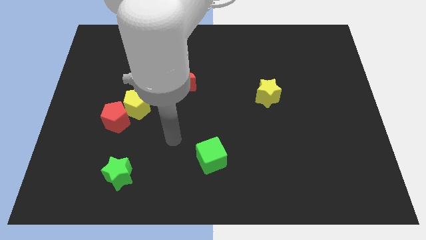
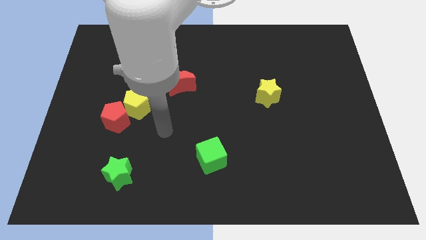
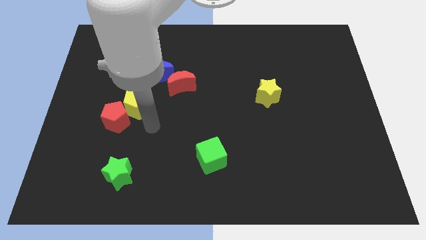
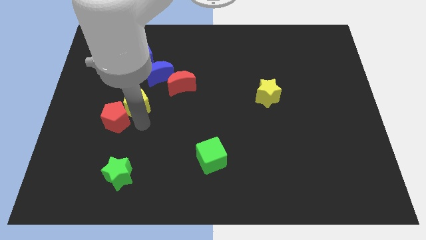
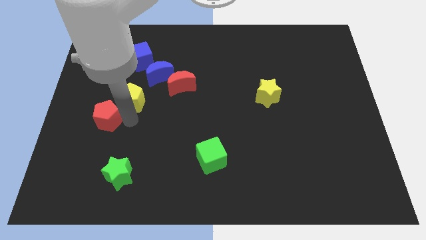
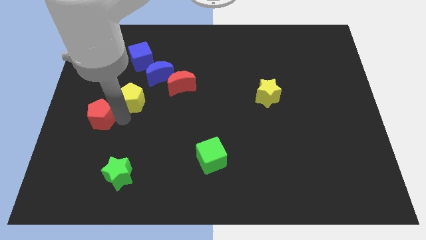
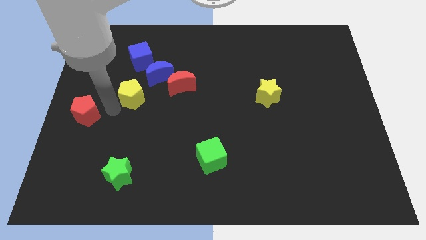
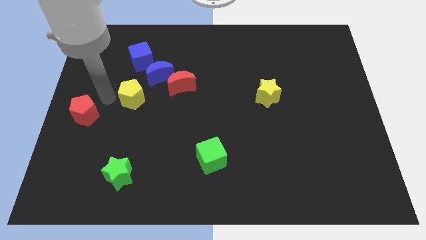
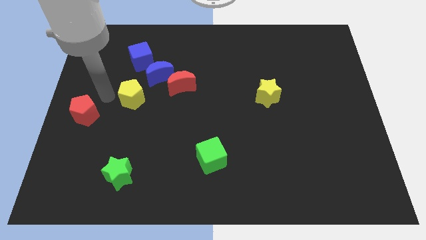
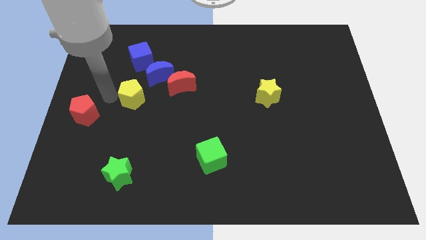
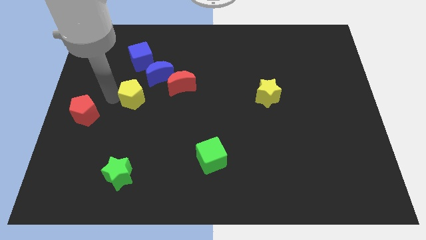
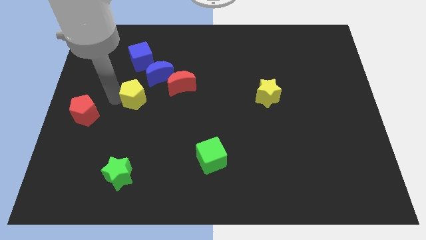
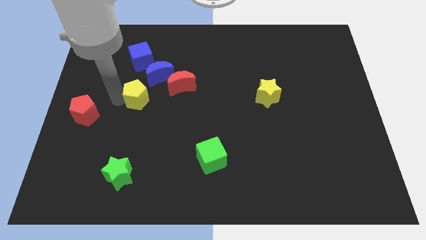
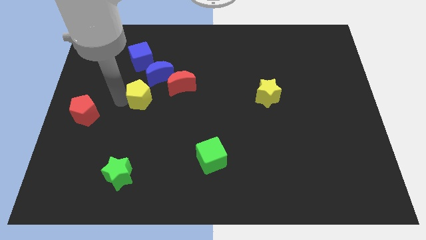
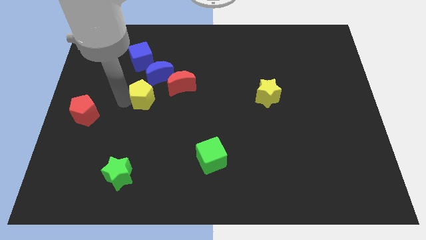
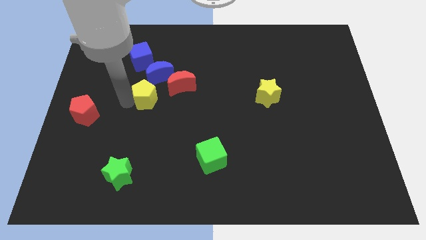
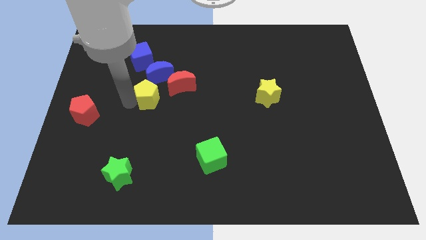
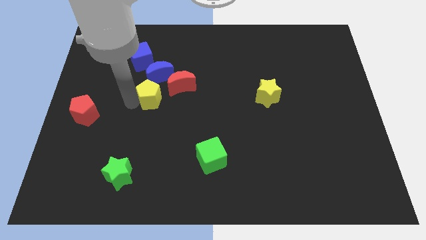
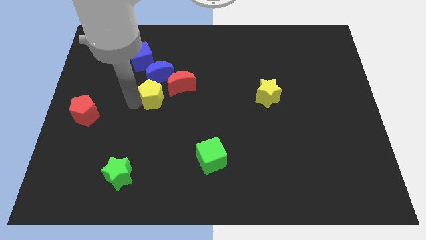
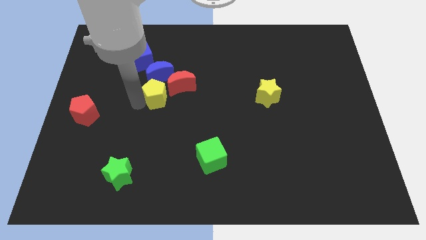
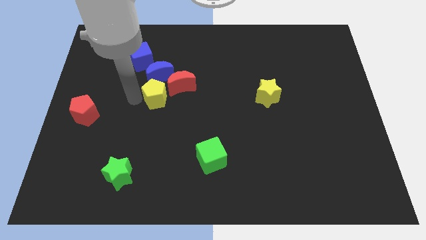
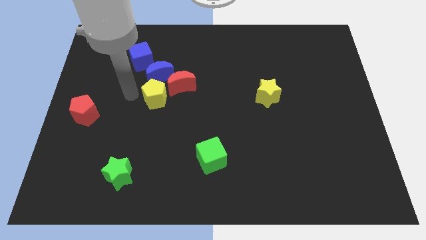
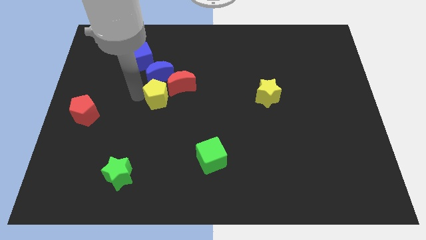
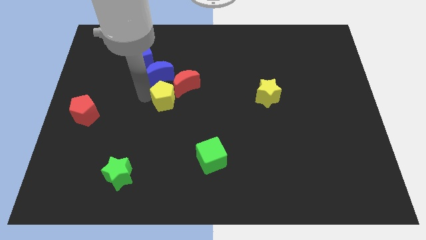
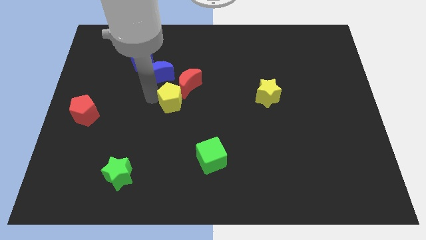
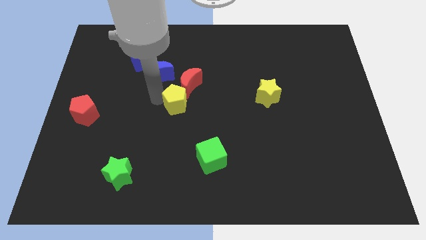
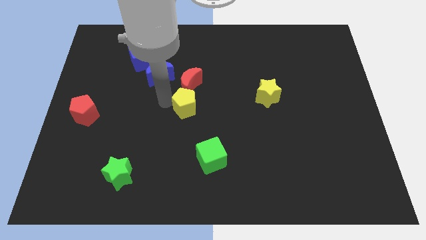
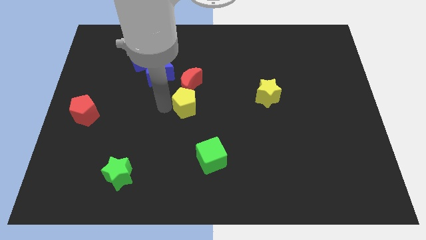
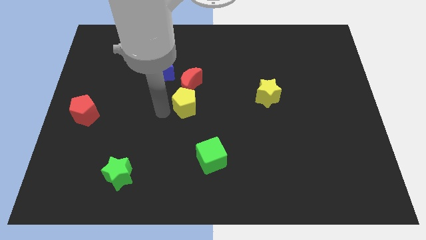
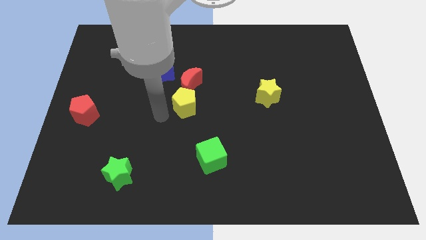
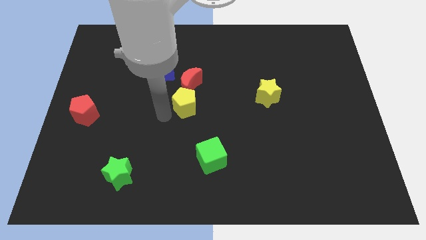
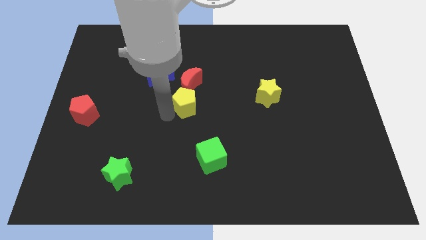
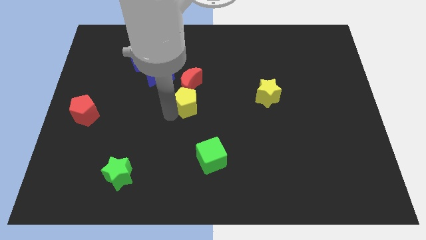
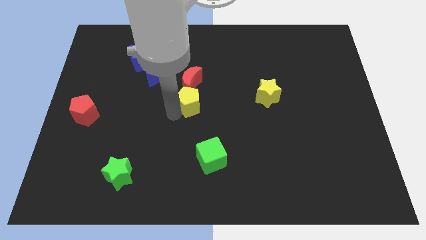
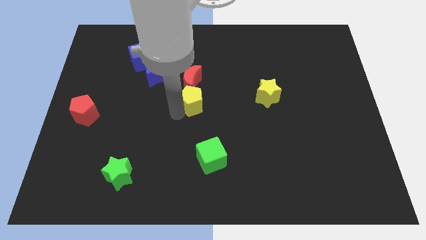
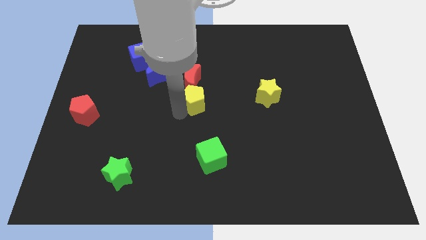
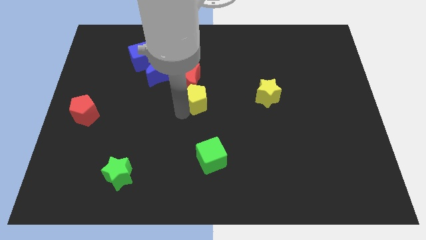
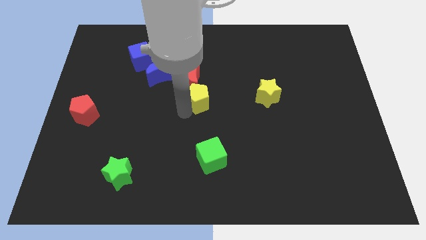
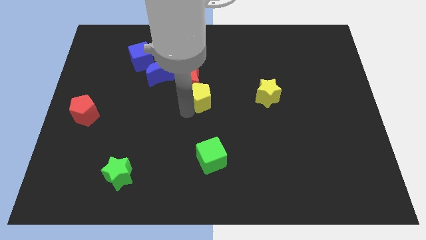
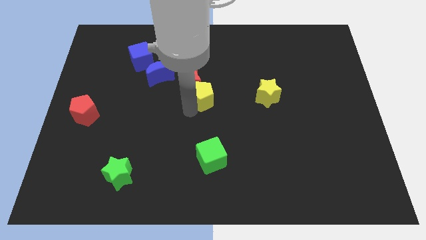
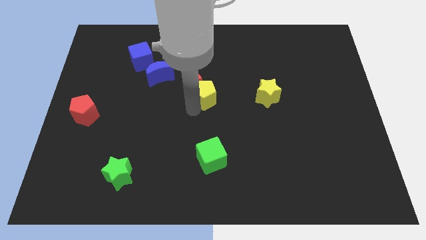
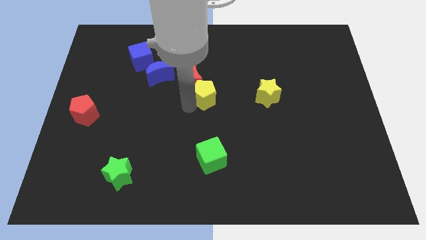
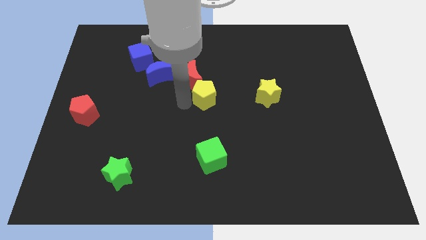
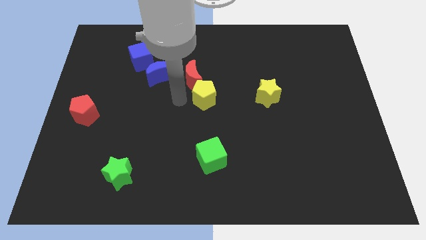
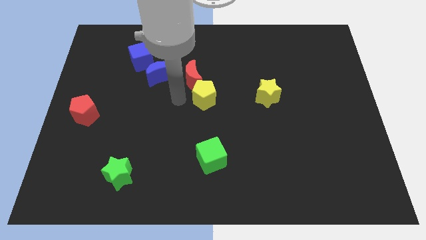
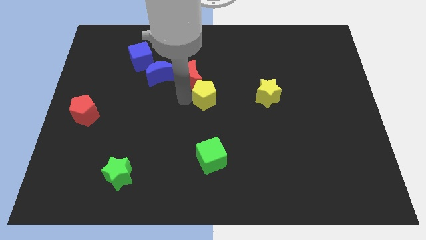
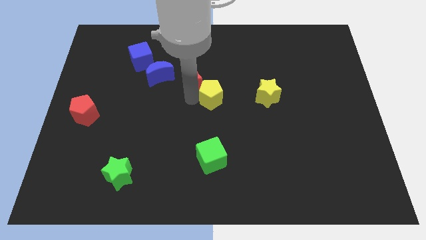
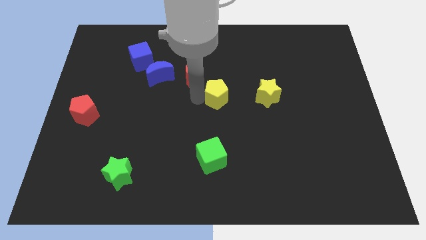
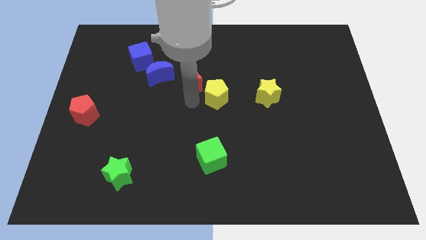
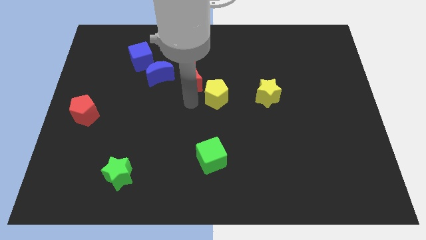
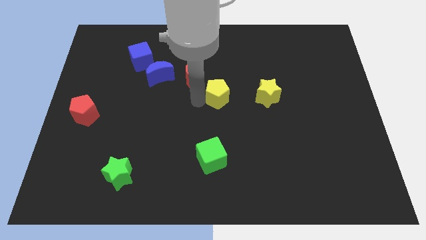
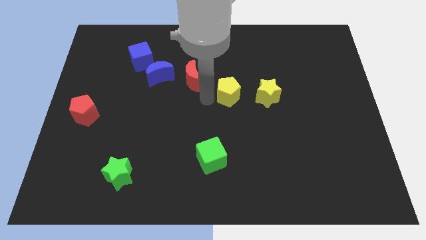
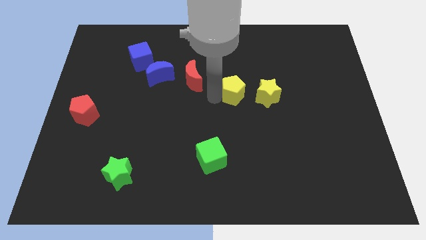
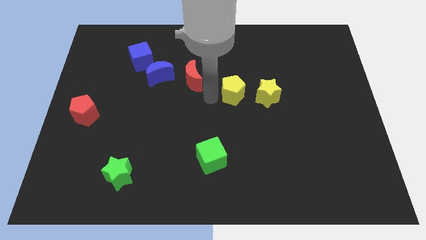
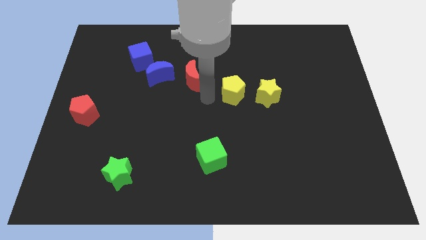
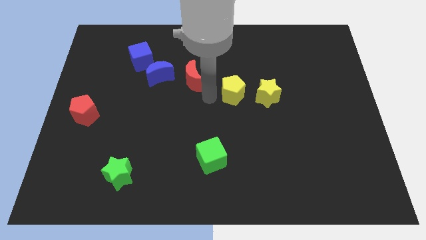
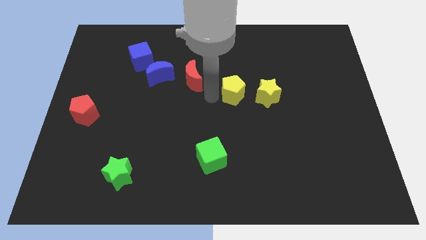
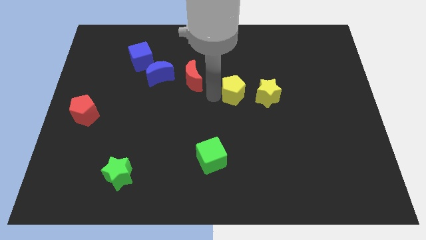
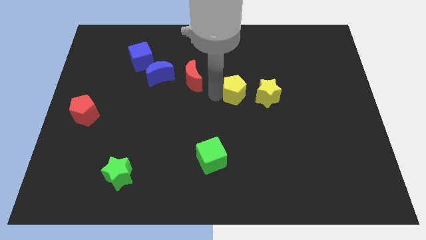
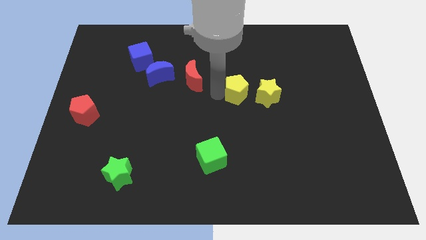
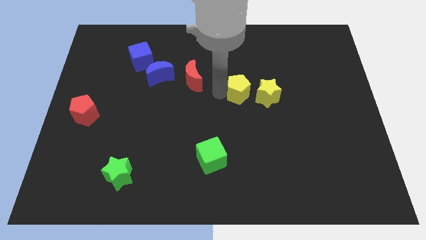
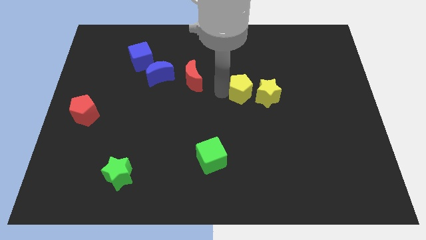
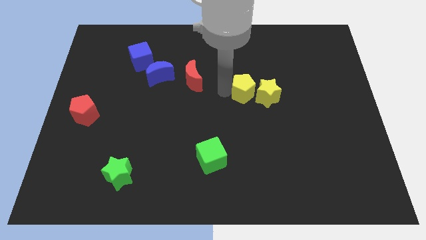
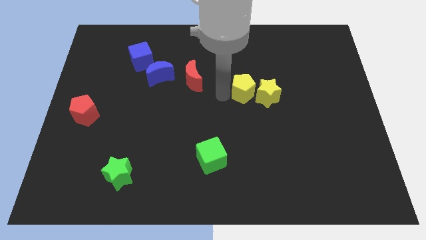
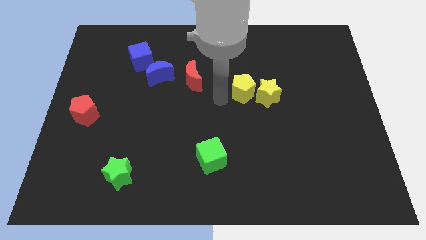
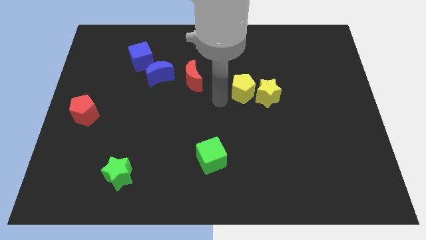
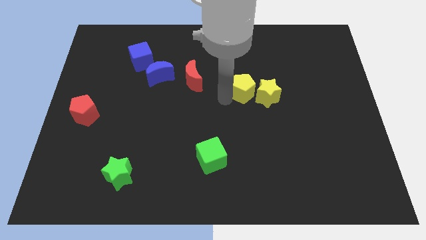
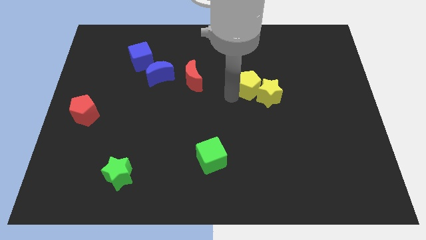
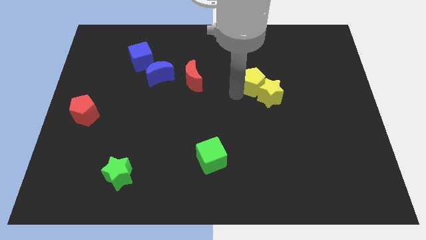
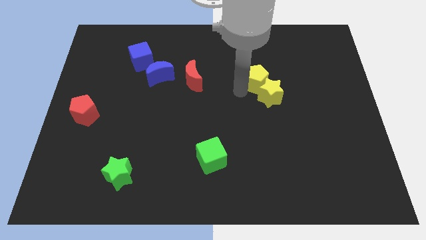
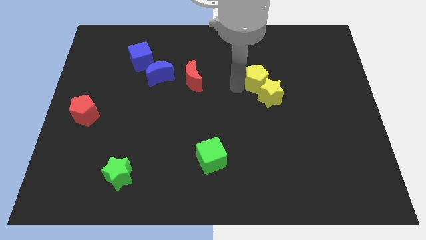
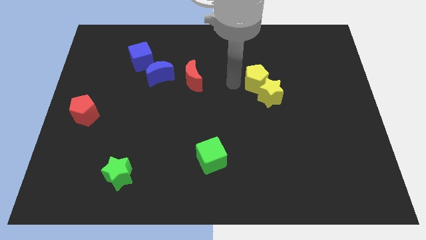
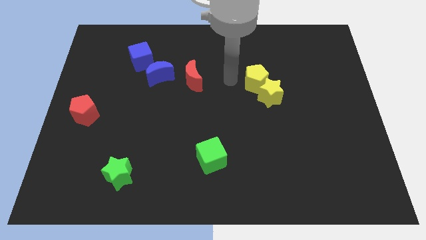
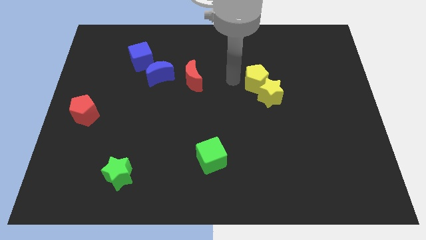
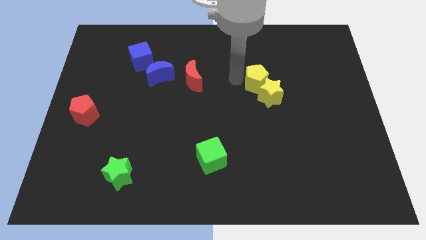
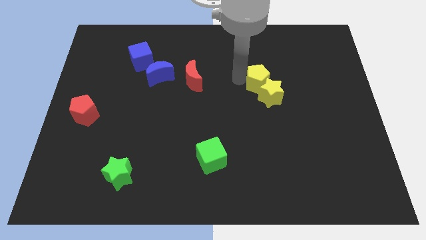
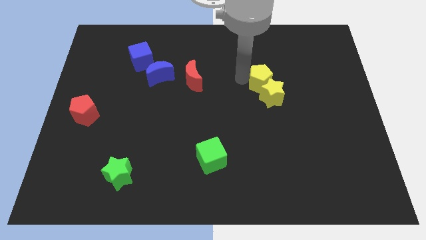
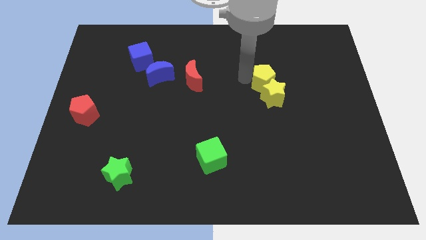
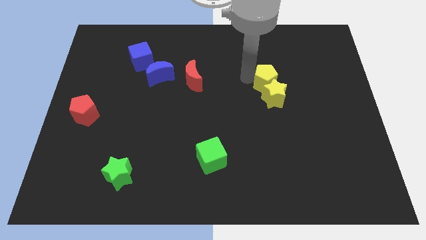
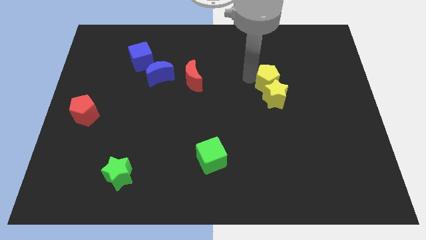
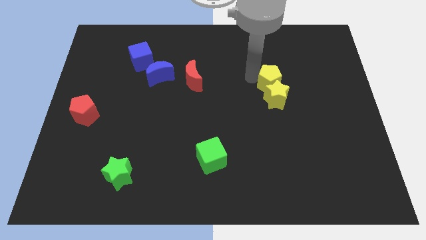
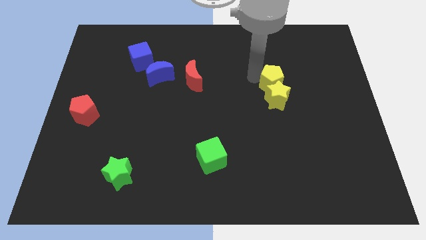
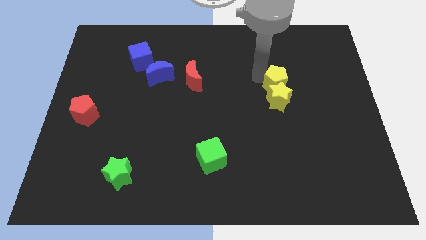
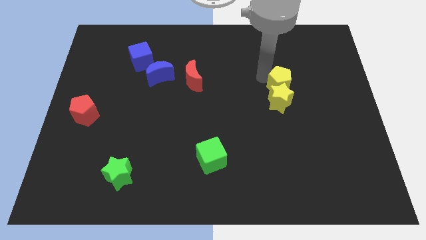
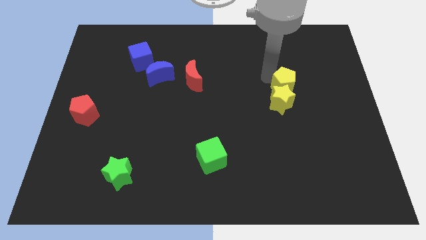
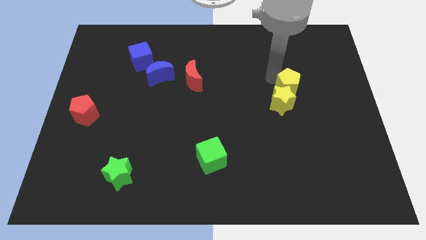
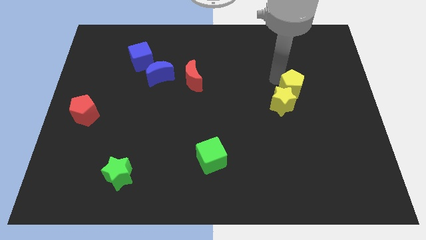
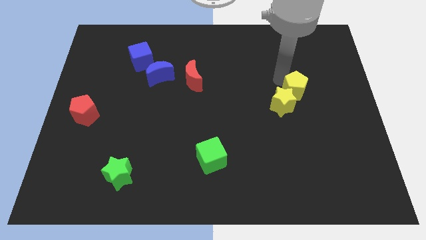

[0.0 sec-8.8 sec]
push the yellow pentagon just right of the yellow star
